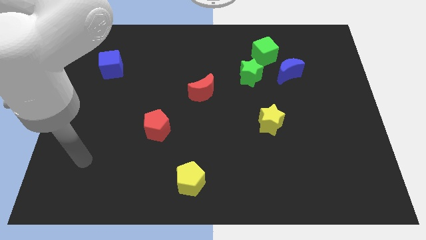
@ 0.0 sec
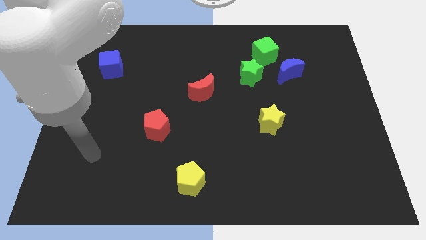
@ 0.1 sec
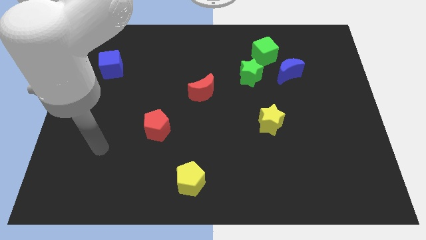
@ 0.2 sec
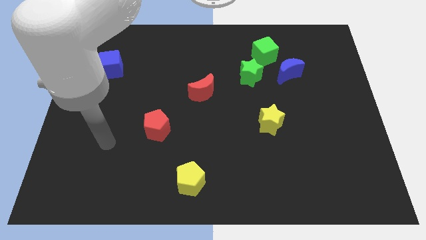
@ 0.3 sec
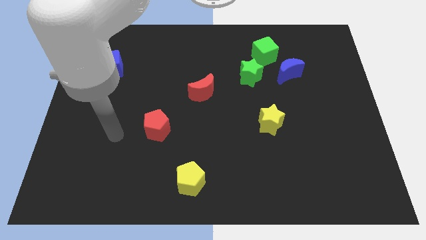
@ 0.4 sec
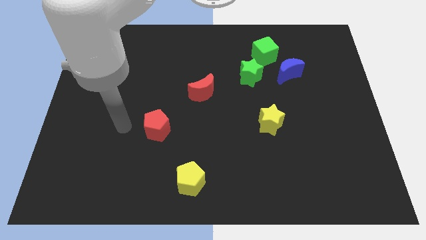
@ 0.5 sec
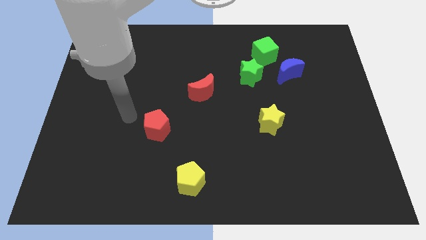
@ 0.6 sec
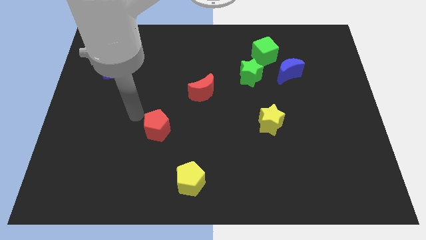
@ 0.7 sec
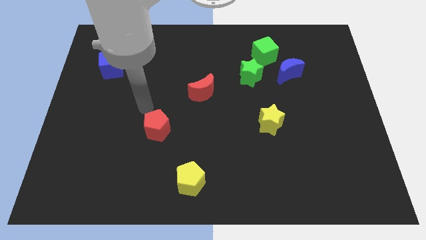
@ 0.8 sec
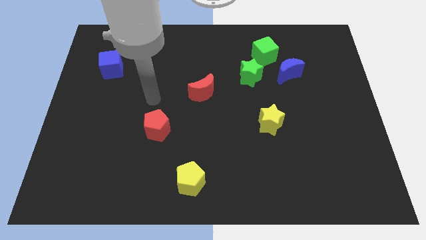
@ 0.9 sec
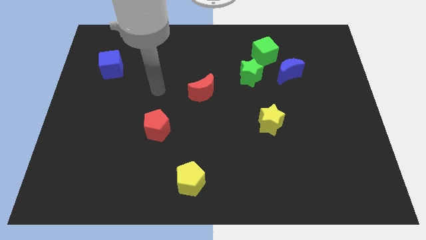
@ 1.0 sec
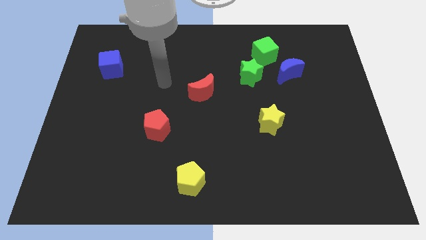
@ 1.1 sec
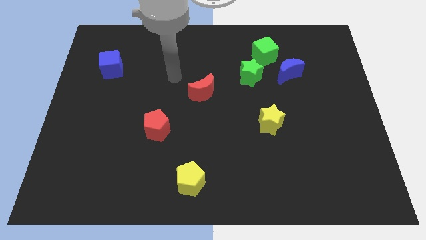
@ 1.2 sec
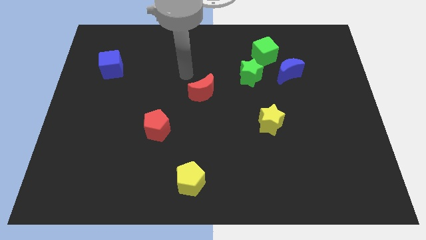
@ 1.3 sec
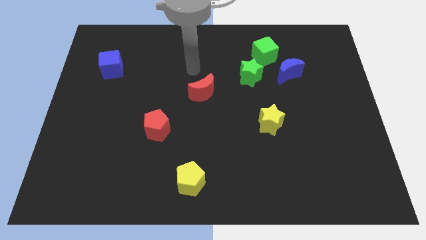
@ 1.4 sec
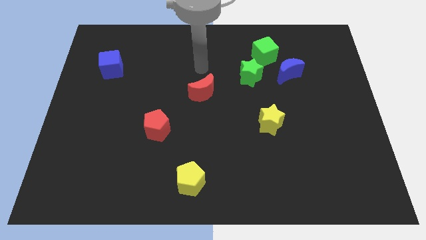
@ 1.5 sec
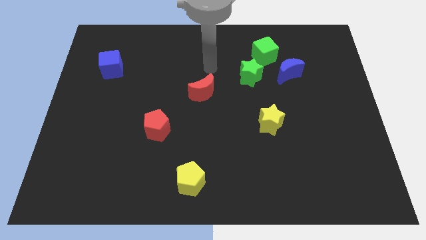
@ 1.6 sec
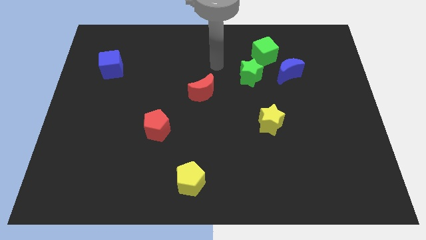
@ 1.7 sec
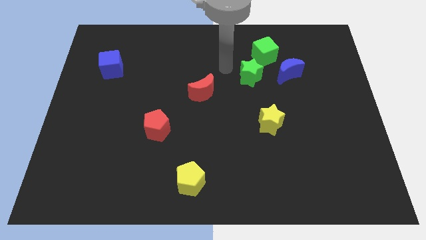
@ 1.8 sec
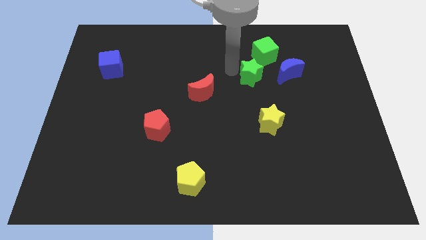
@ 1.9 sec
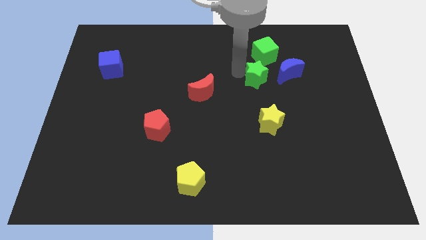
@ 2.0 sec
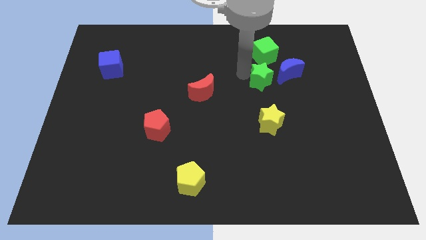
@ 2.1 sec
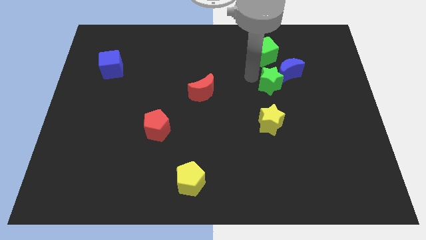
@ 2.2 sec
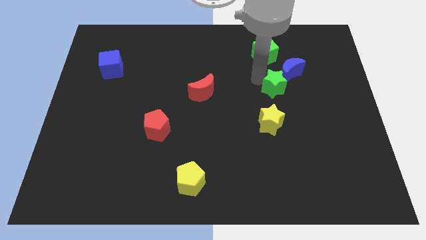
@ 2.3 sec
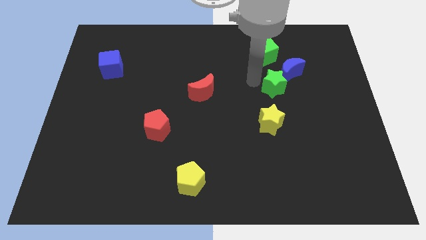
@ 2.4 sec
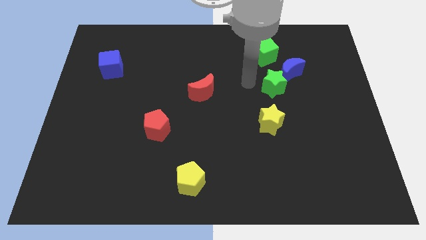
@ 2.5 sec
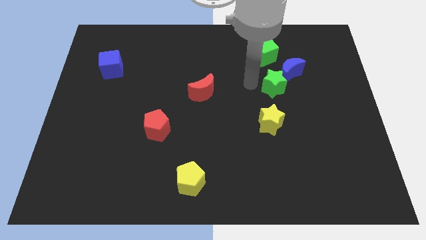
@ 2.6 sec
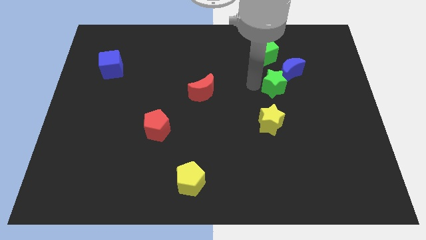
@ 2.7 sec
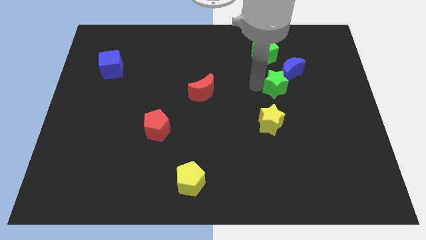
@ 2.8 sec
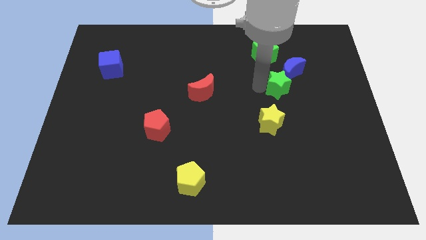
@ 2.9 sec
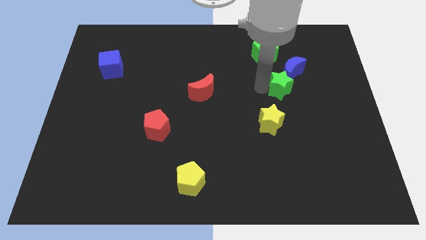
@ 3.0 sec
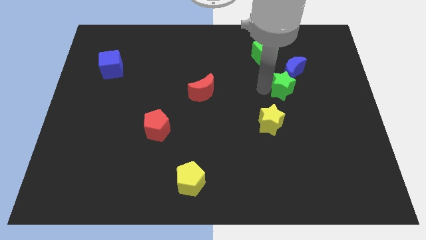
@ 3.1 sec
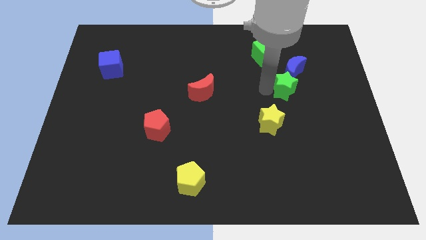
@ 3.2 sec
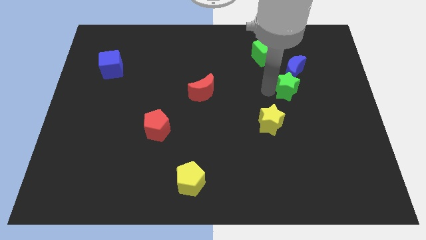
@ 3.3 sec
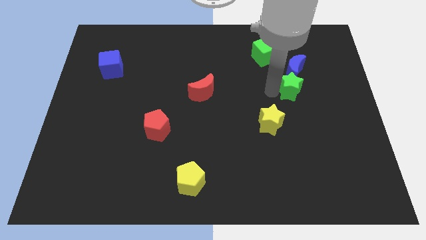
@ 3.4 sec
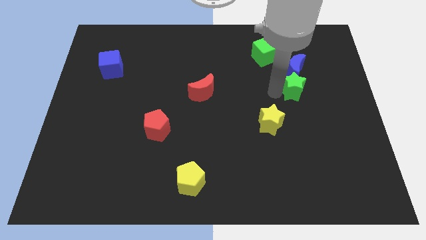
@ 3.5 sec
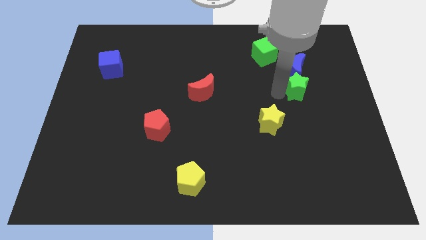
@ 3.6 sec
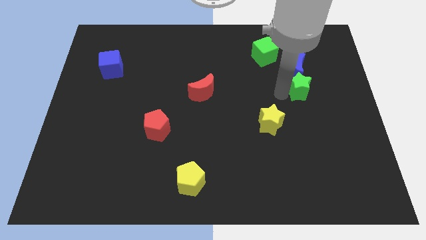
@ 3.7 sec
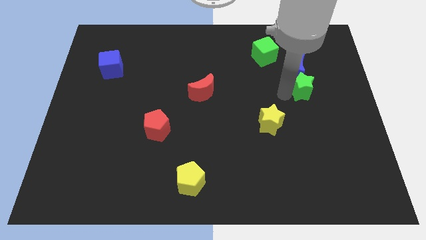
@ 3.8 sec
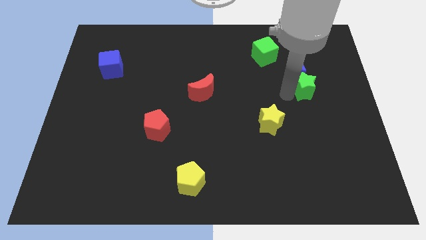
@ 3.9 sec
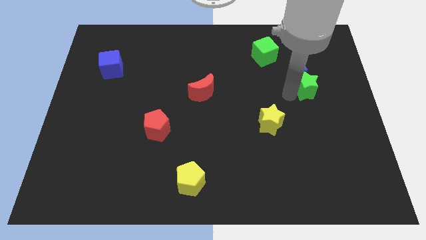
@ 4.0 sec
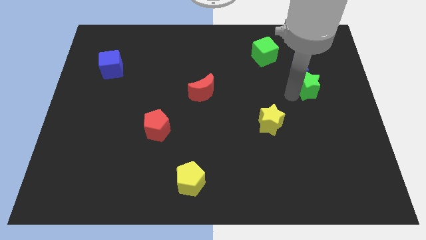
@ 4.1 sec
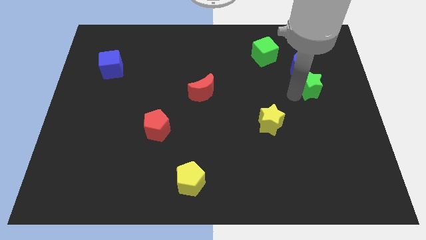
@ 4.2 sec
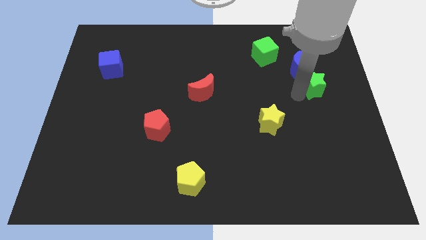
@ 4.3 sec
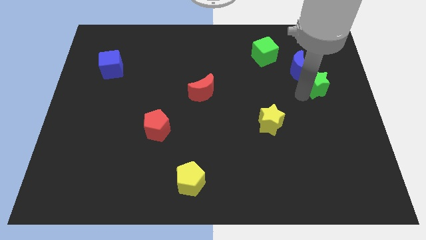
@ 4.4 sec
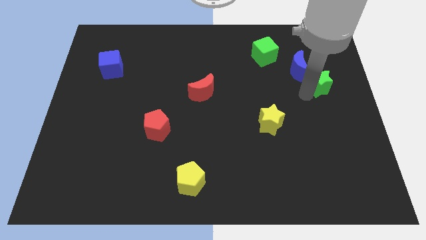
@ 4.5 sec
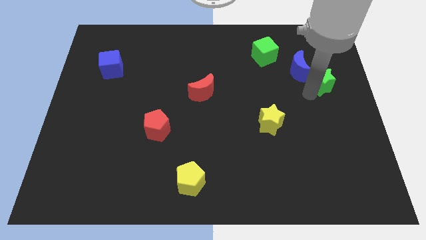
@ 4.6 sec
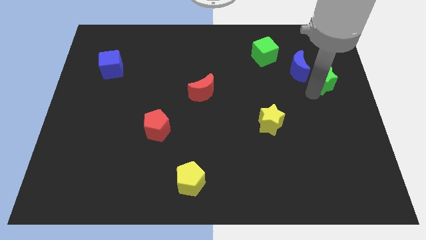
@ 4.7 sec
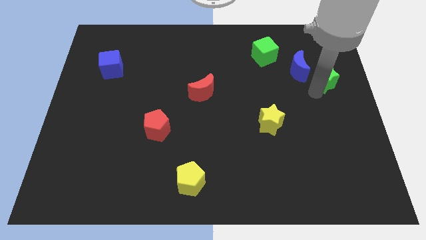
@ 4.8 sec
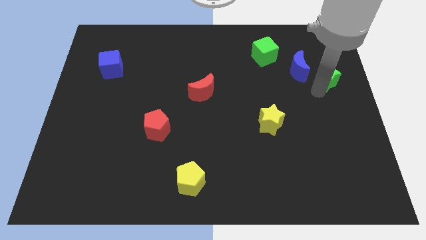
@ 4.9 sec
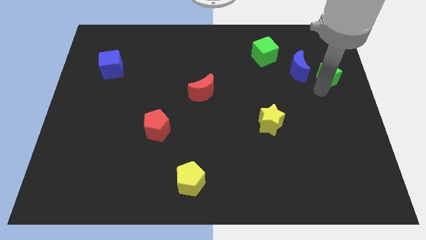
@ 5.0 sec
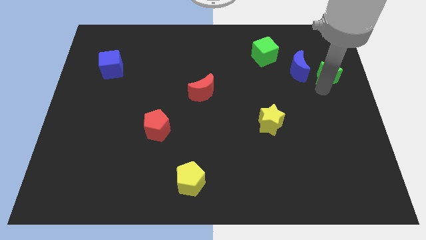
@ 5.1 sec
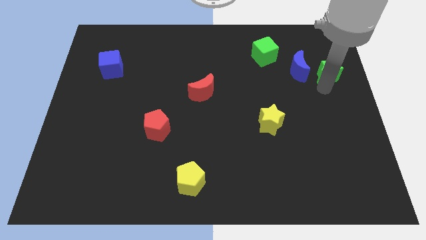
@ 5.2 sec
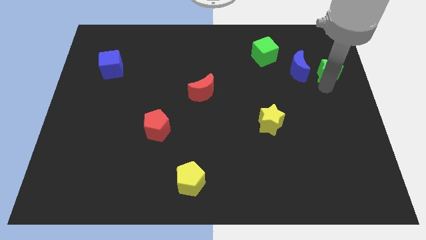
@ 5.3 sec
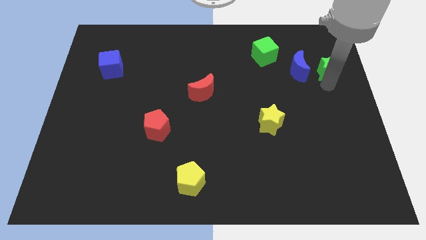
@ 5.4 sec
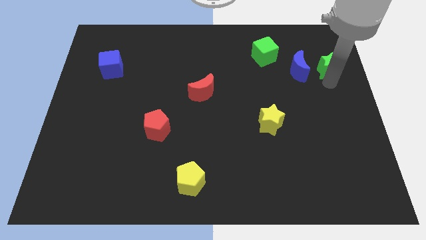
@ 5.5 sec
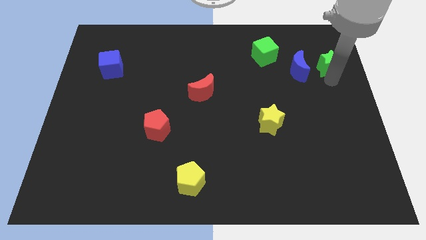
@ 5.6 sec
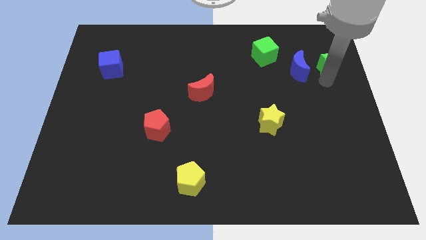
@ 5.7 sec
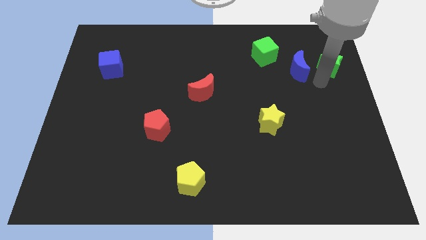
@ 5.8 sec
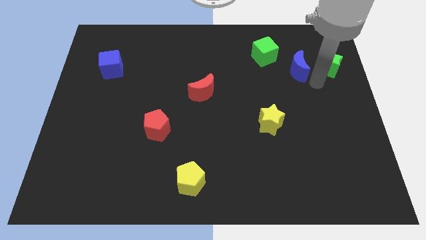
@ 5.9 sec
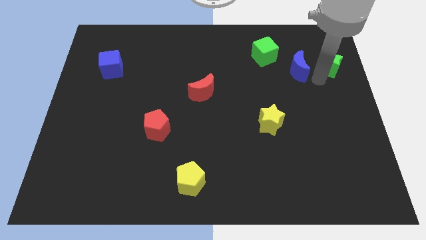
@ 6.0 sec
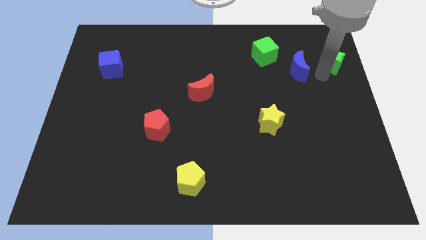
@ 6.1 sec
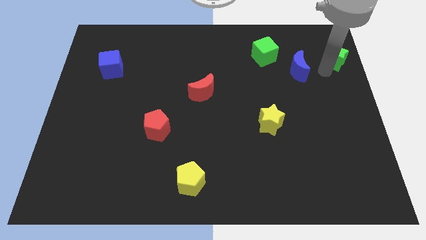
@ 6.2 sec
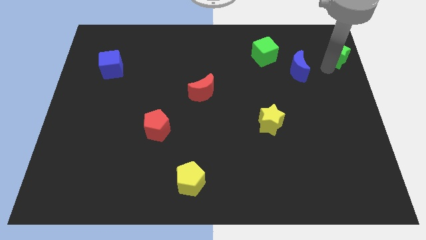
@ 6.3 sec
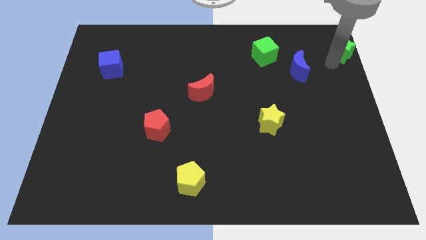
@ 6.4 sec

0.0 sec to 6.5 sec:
put the green star to the top right of the board
